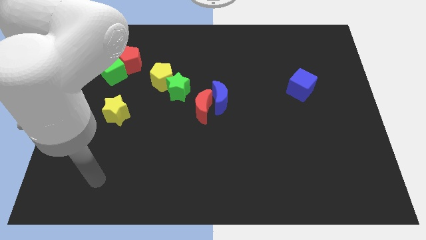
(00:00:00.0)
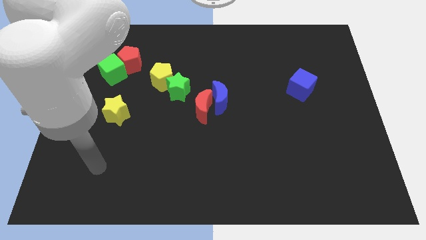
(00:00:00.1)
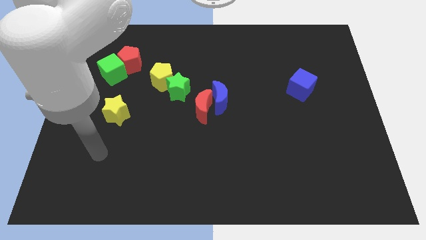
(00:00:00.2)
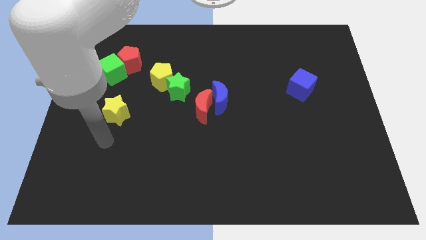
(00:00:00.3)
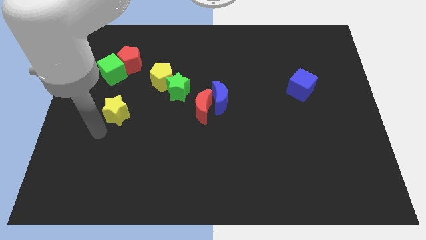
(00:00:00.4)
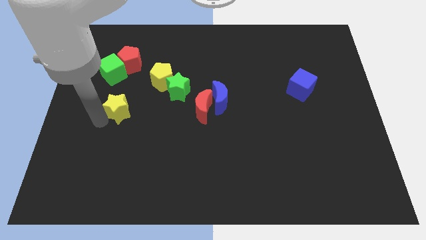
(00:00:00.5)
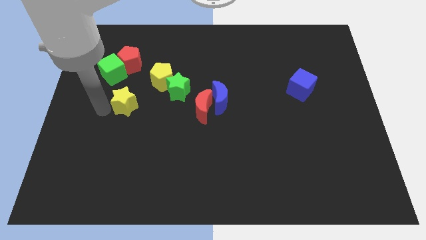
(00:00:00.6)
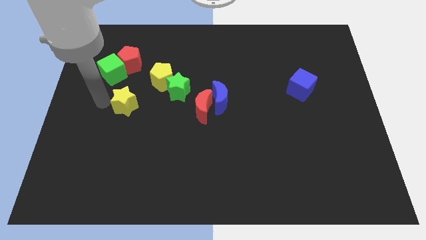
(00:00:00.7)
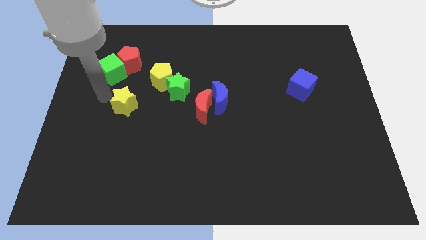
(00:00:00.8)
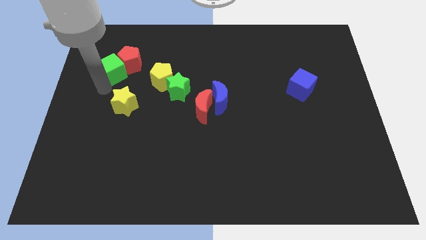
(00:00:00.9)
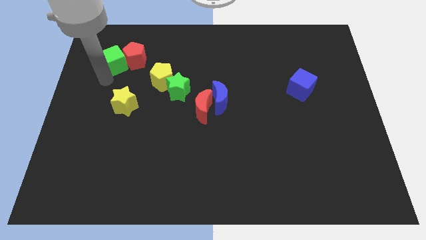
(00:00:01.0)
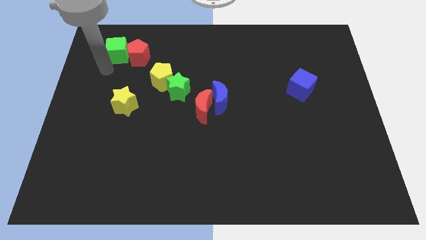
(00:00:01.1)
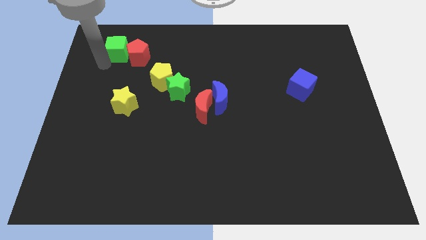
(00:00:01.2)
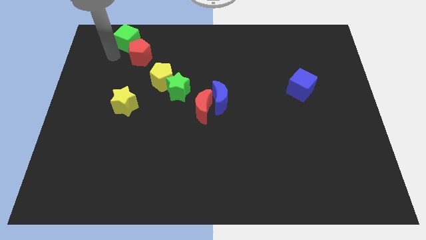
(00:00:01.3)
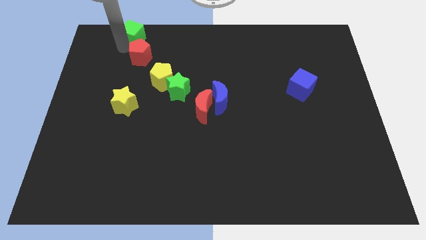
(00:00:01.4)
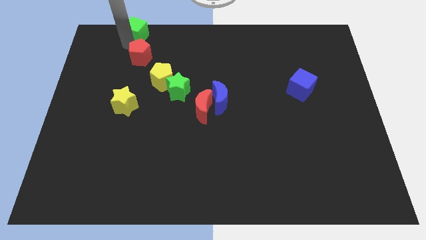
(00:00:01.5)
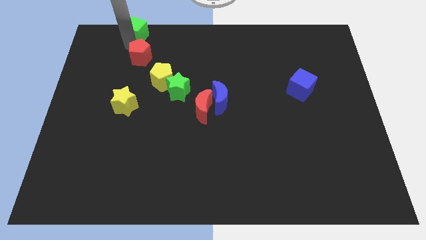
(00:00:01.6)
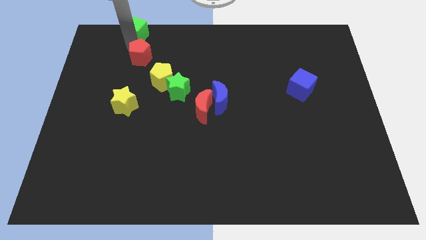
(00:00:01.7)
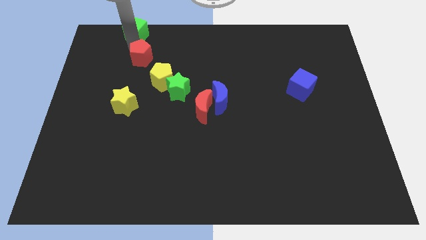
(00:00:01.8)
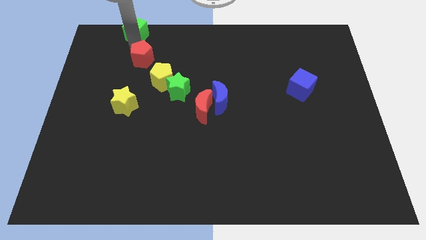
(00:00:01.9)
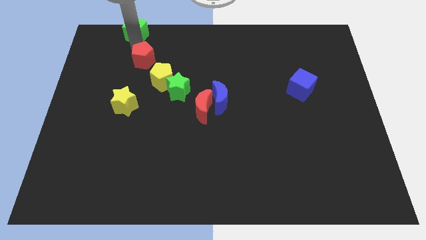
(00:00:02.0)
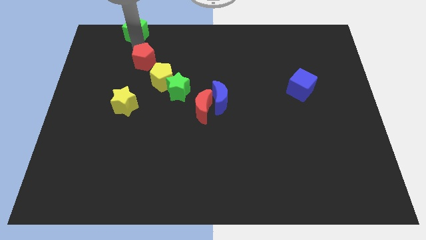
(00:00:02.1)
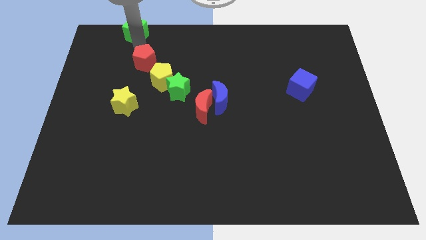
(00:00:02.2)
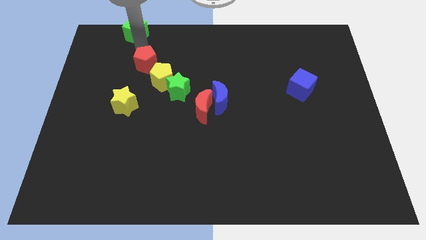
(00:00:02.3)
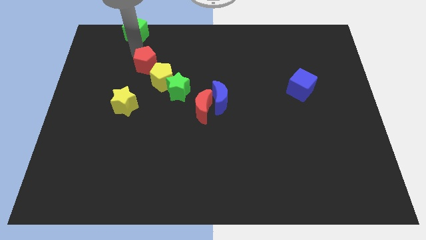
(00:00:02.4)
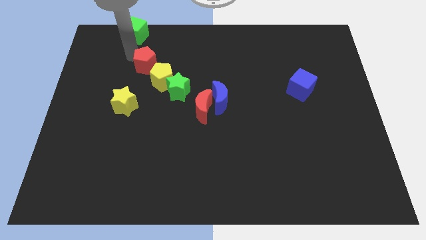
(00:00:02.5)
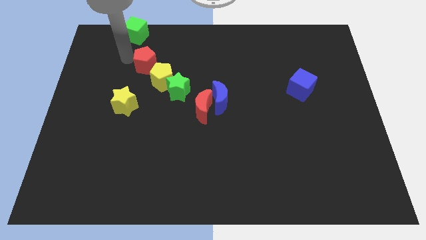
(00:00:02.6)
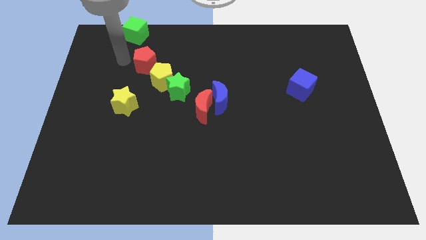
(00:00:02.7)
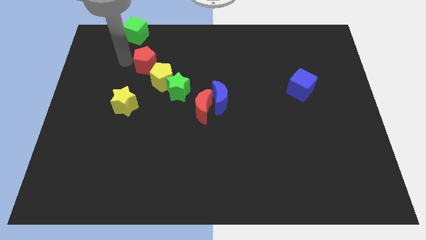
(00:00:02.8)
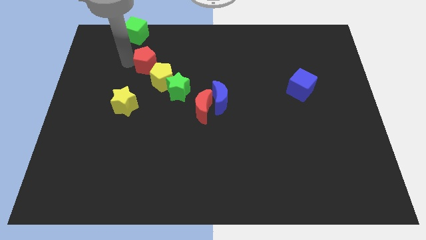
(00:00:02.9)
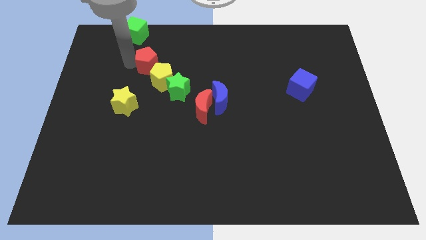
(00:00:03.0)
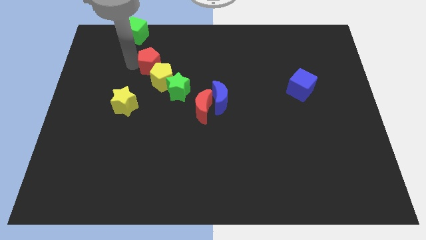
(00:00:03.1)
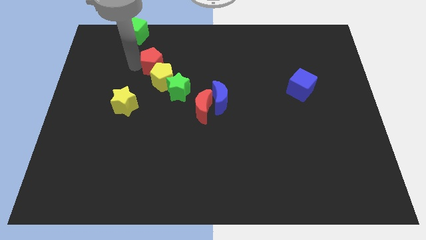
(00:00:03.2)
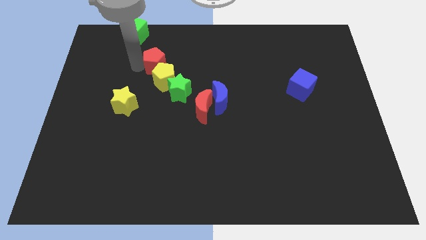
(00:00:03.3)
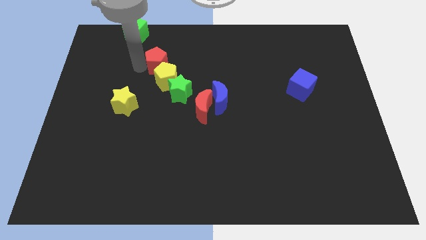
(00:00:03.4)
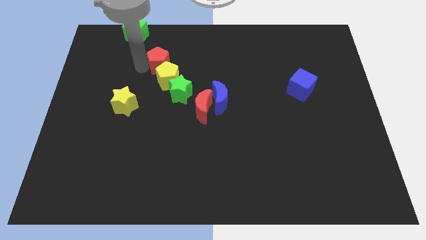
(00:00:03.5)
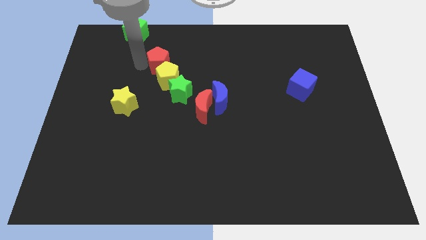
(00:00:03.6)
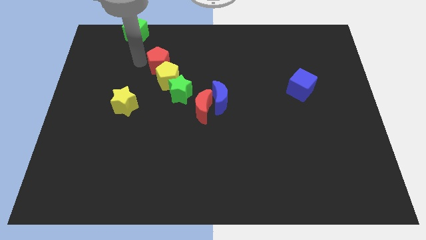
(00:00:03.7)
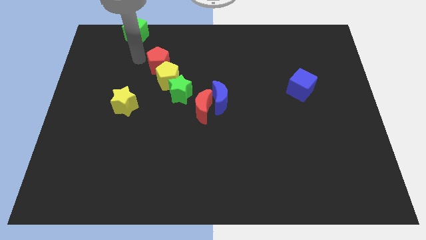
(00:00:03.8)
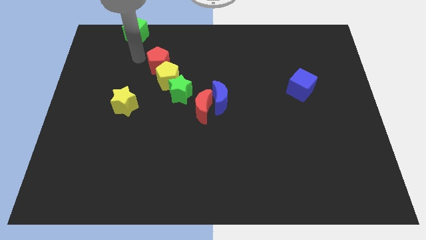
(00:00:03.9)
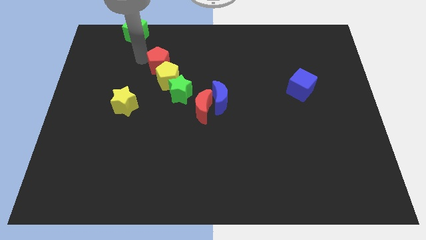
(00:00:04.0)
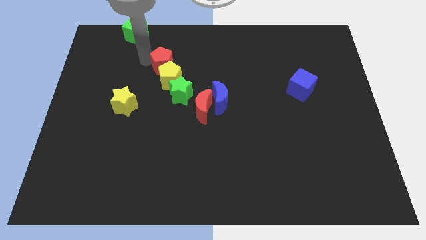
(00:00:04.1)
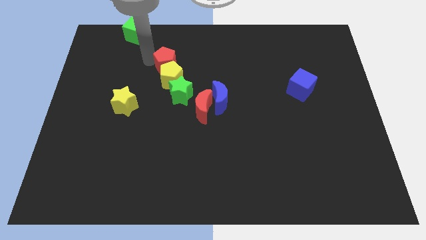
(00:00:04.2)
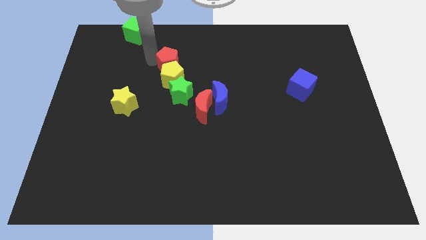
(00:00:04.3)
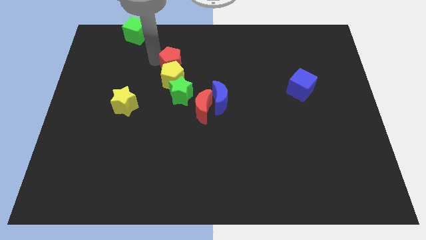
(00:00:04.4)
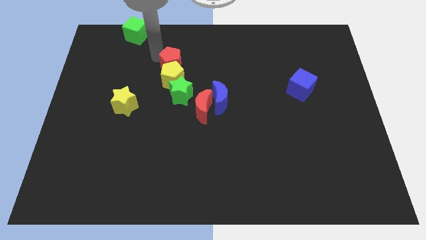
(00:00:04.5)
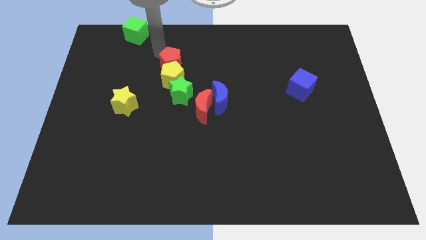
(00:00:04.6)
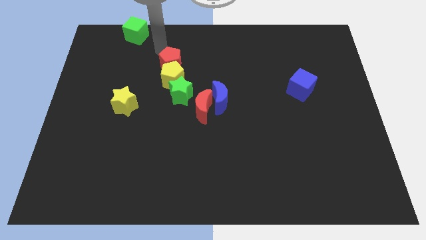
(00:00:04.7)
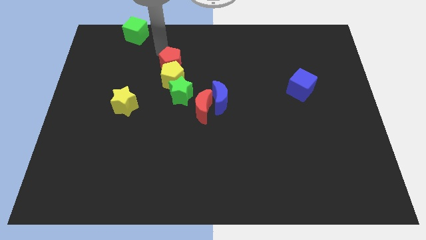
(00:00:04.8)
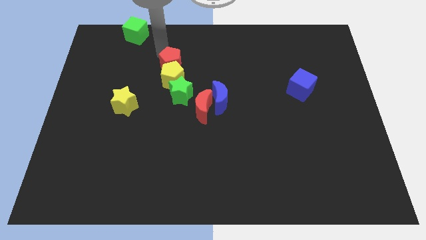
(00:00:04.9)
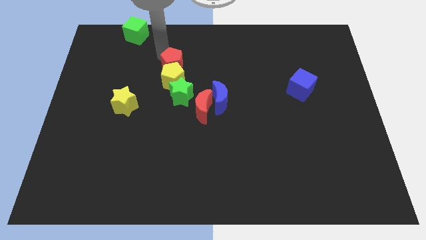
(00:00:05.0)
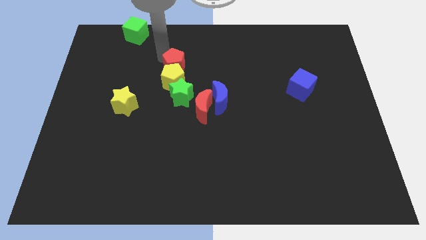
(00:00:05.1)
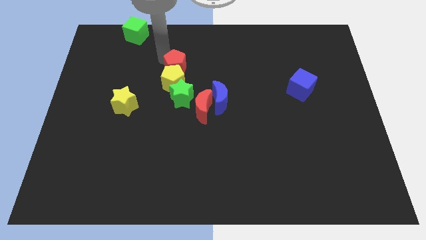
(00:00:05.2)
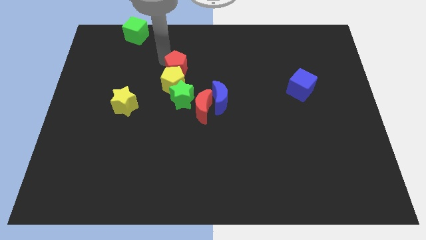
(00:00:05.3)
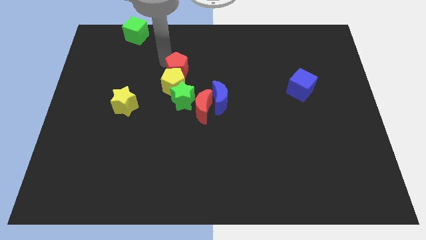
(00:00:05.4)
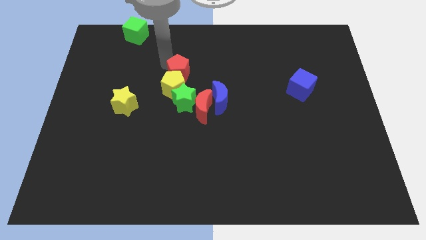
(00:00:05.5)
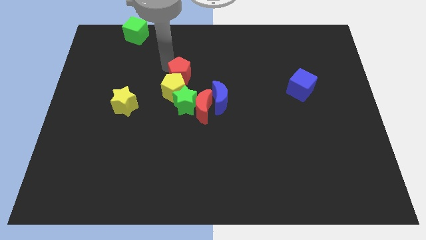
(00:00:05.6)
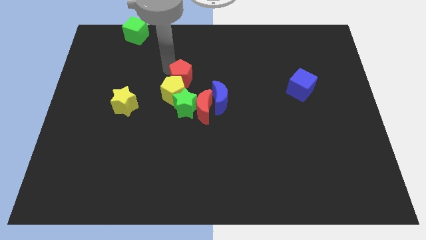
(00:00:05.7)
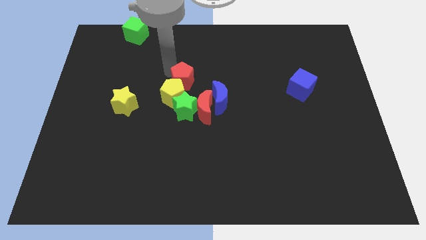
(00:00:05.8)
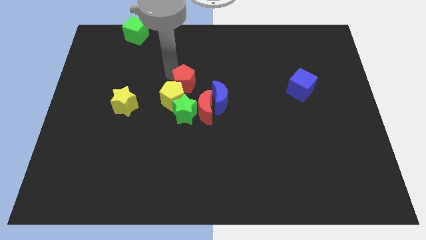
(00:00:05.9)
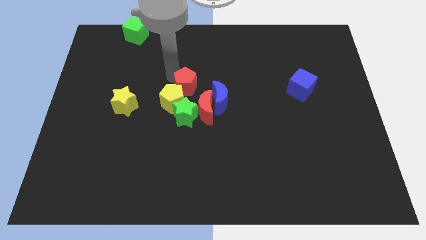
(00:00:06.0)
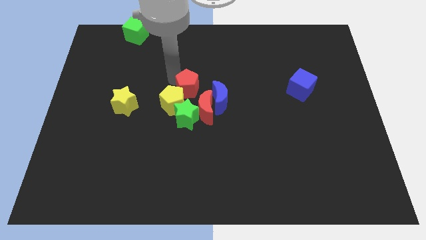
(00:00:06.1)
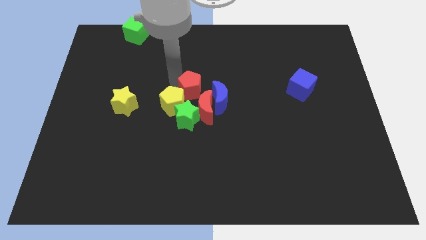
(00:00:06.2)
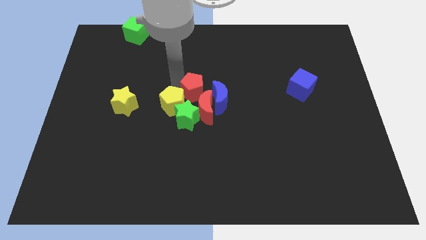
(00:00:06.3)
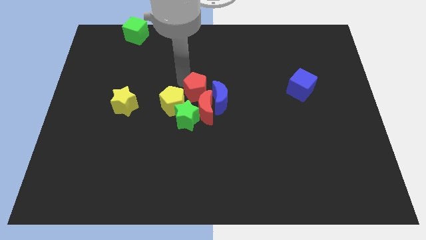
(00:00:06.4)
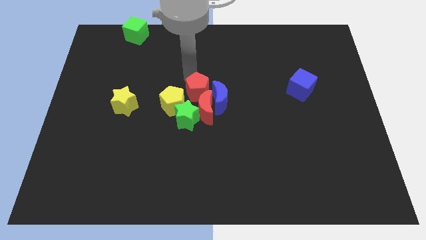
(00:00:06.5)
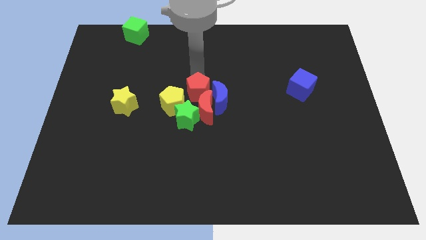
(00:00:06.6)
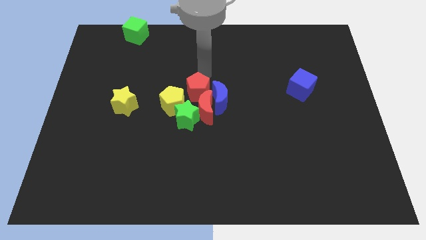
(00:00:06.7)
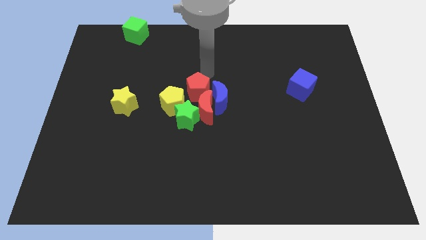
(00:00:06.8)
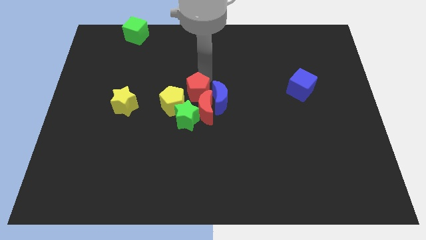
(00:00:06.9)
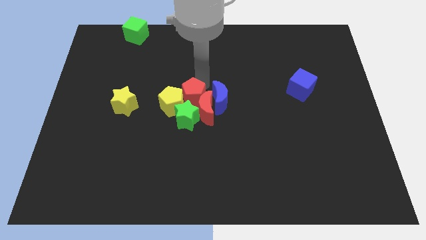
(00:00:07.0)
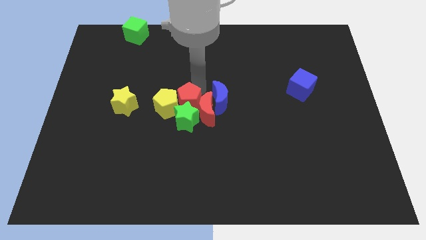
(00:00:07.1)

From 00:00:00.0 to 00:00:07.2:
move the red pentagon towards the green star

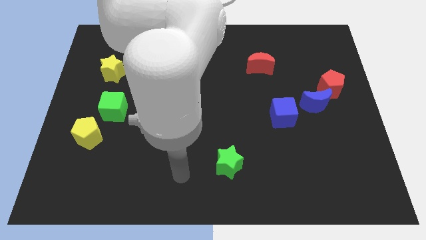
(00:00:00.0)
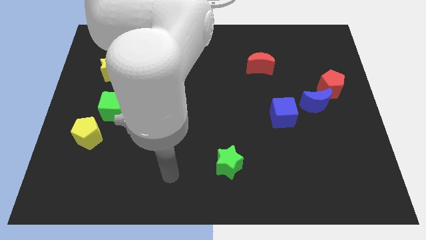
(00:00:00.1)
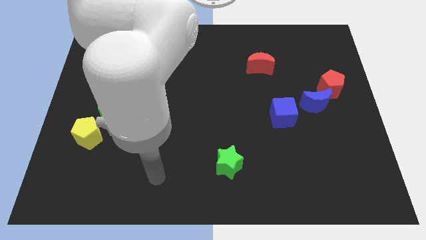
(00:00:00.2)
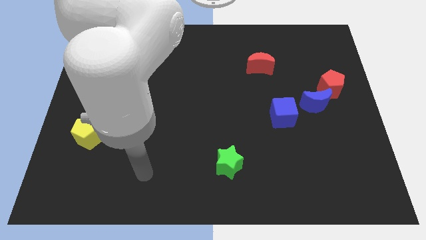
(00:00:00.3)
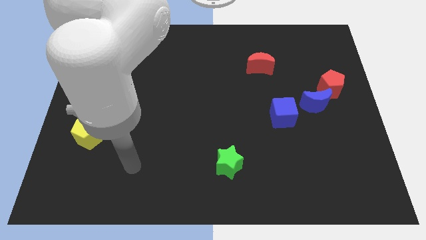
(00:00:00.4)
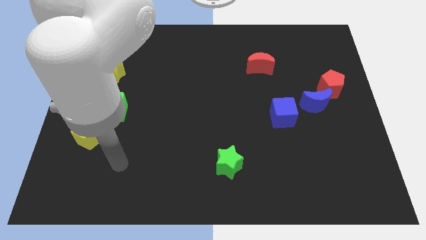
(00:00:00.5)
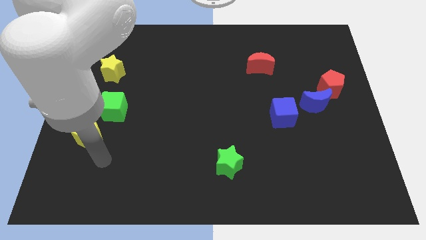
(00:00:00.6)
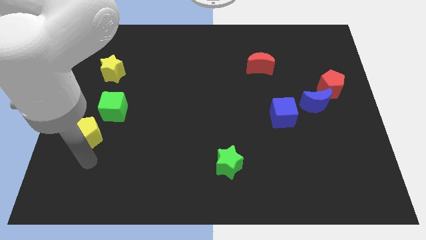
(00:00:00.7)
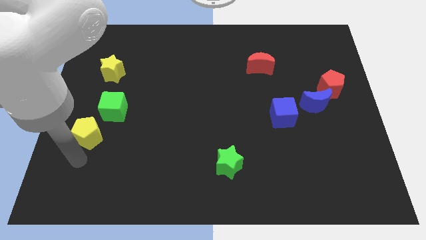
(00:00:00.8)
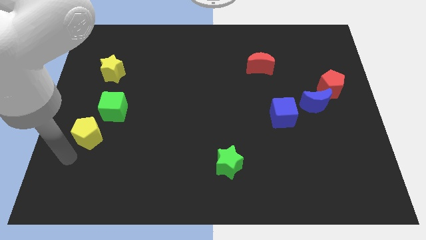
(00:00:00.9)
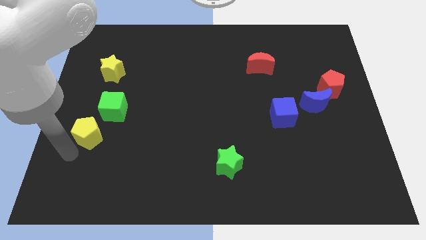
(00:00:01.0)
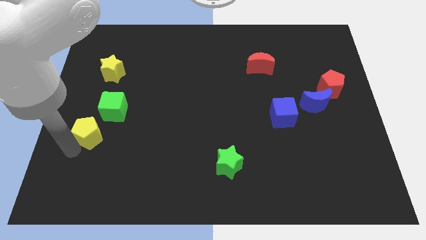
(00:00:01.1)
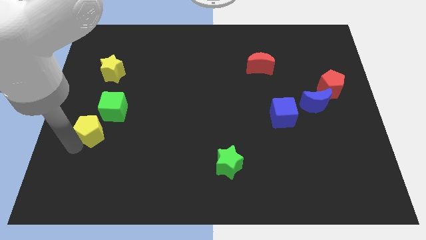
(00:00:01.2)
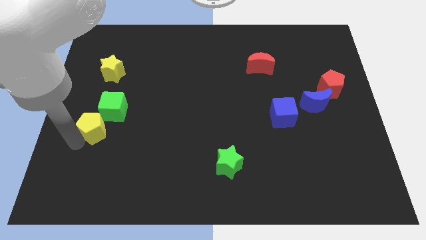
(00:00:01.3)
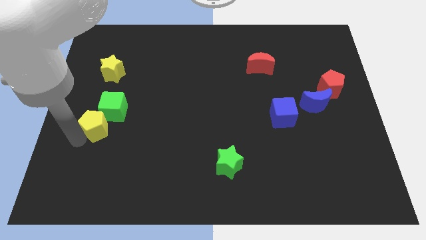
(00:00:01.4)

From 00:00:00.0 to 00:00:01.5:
push the yellow pentagon next to the green cube
